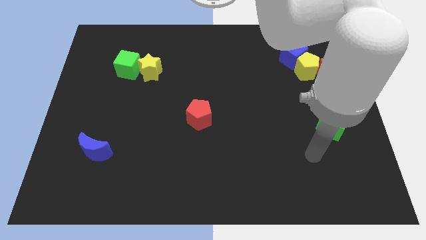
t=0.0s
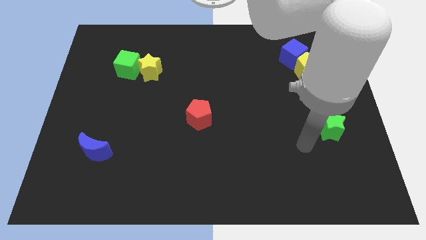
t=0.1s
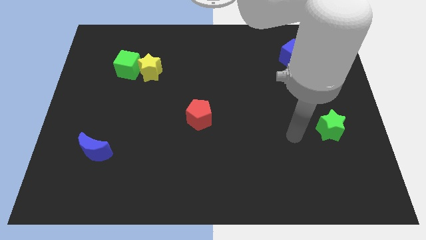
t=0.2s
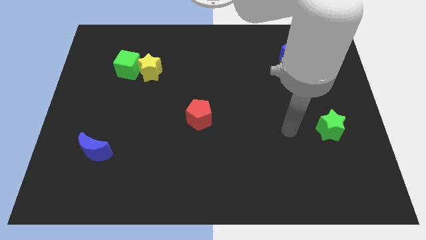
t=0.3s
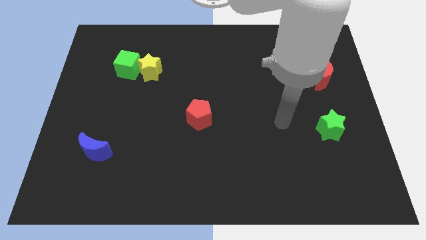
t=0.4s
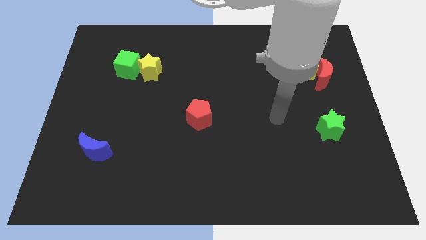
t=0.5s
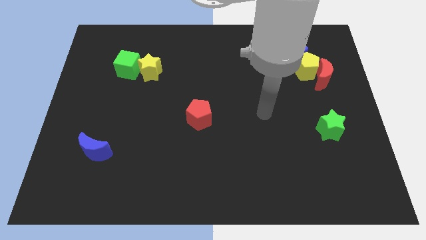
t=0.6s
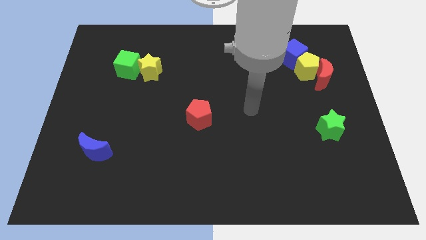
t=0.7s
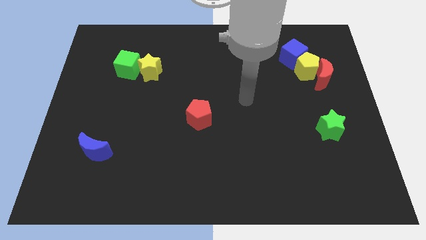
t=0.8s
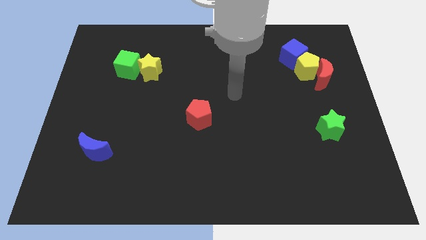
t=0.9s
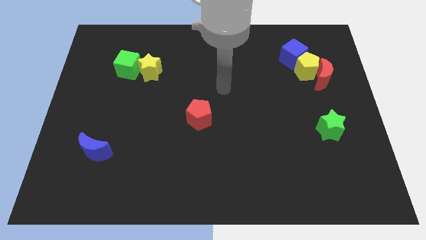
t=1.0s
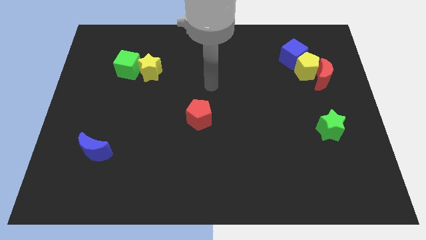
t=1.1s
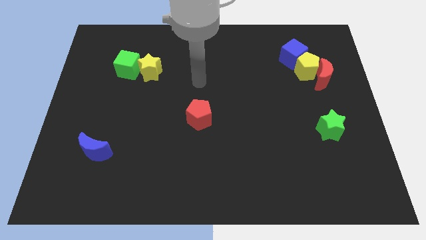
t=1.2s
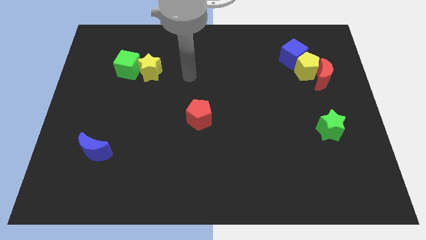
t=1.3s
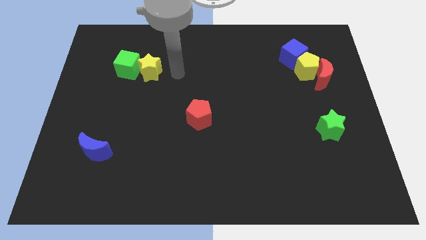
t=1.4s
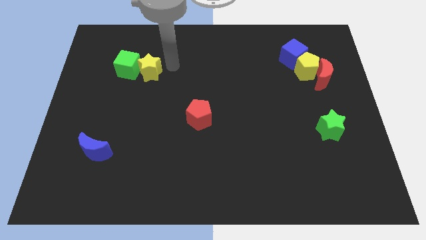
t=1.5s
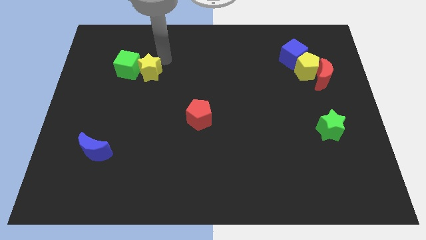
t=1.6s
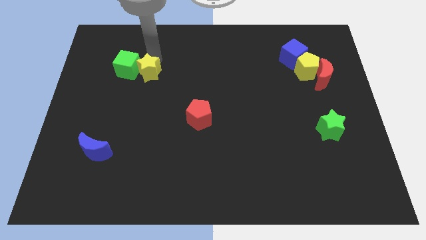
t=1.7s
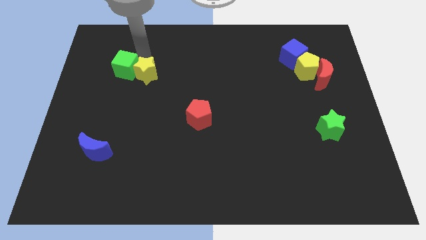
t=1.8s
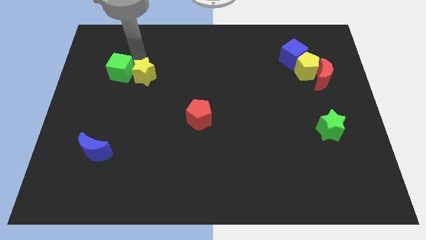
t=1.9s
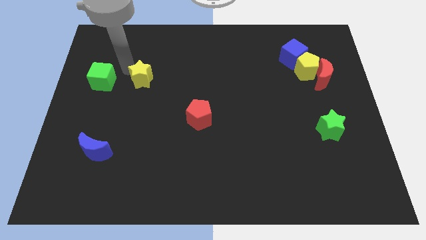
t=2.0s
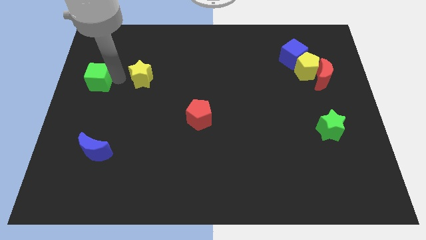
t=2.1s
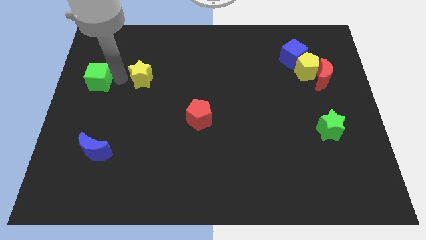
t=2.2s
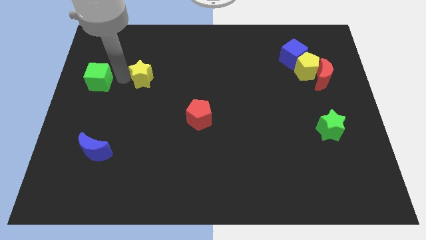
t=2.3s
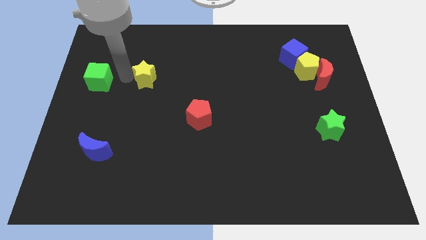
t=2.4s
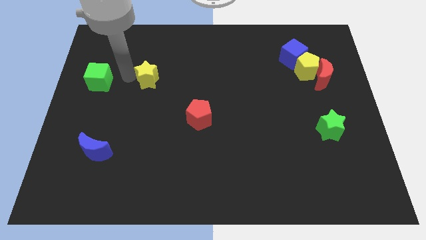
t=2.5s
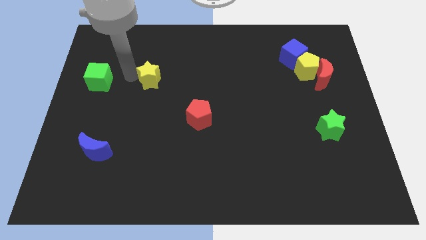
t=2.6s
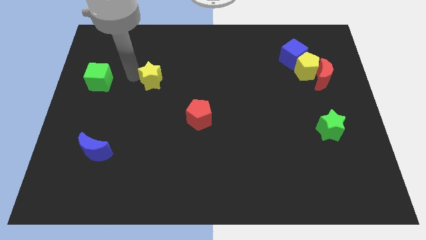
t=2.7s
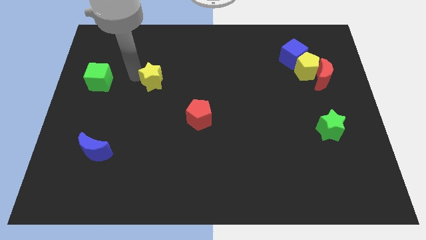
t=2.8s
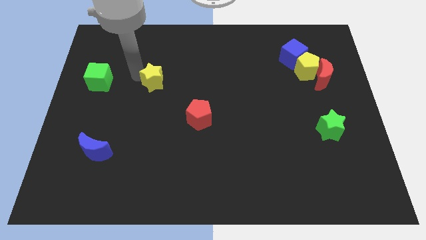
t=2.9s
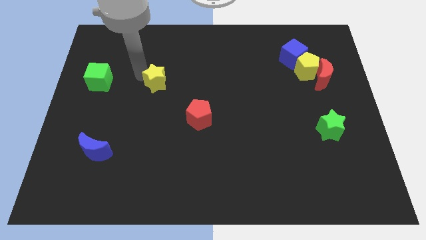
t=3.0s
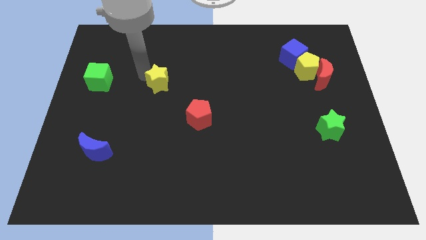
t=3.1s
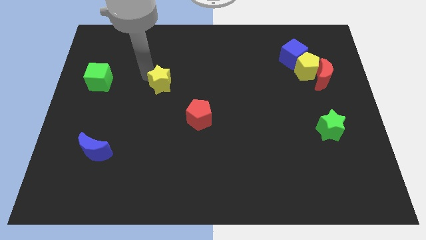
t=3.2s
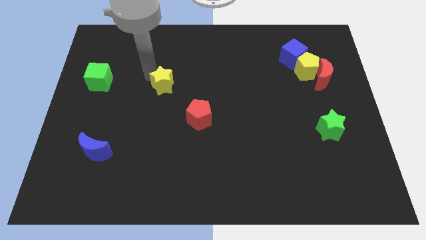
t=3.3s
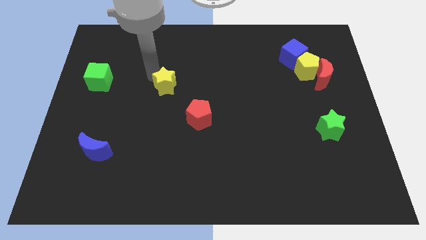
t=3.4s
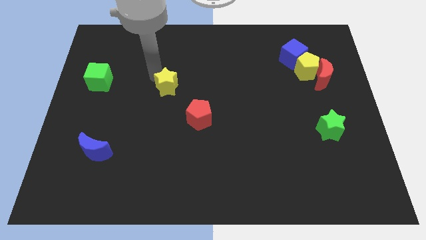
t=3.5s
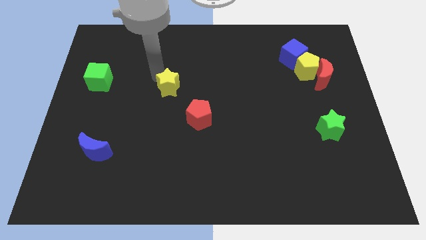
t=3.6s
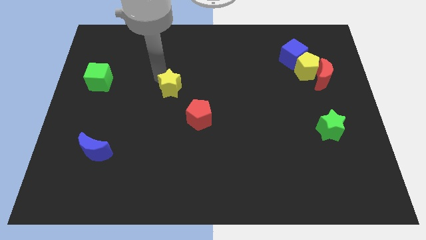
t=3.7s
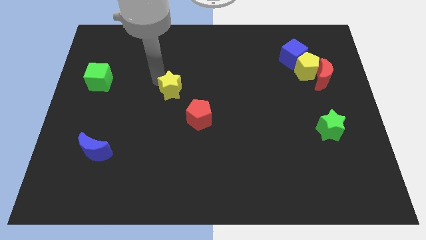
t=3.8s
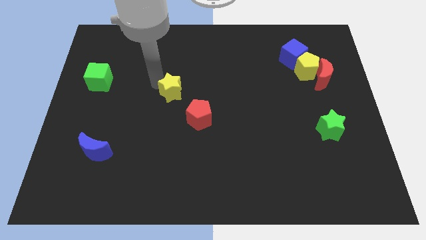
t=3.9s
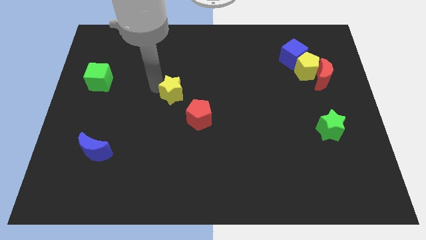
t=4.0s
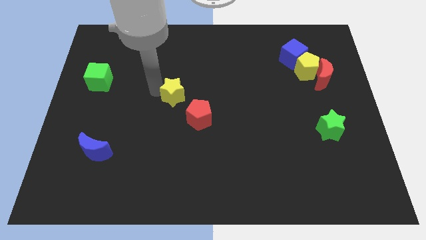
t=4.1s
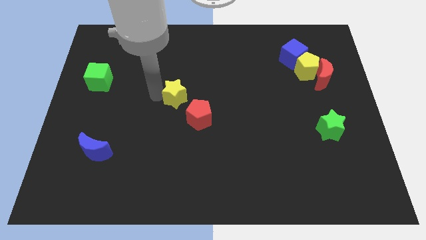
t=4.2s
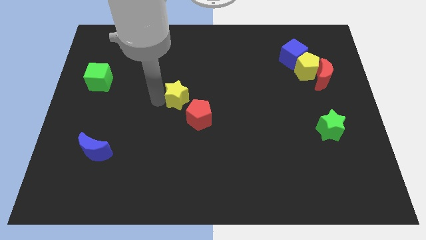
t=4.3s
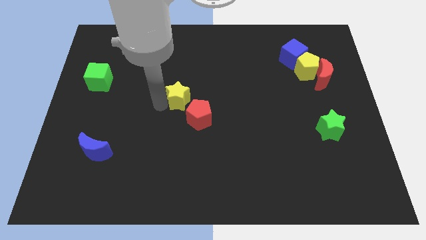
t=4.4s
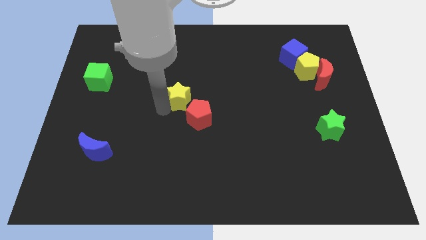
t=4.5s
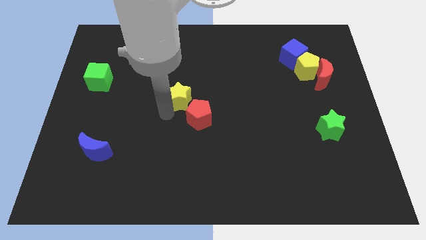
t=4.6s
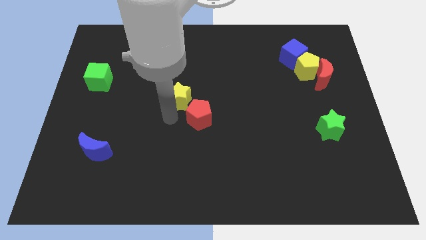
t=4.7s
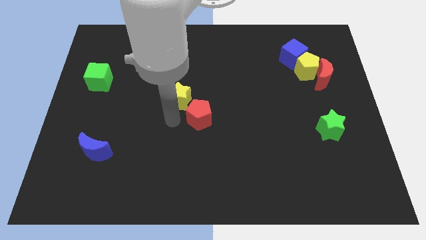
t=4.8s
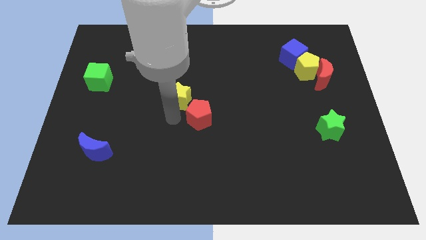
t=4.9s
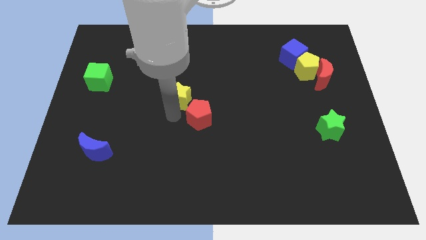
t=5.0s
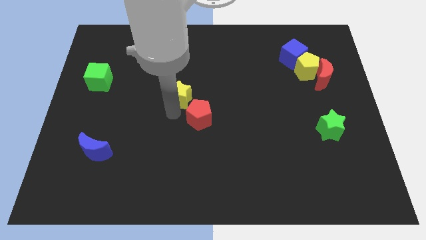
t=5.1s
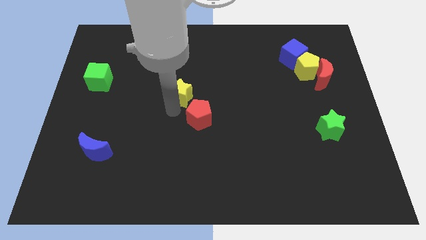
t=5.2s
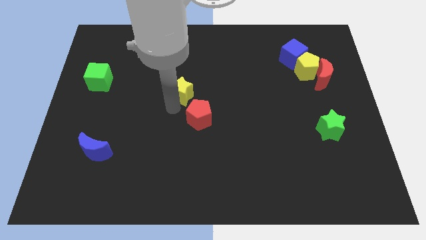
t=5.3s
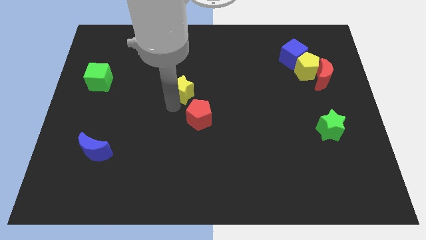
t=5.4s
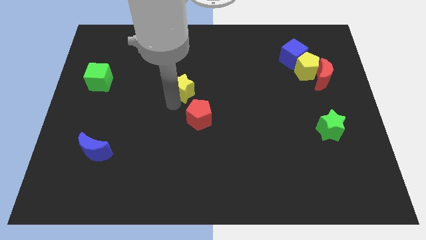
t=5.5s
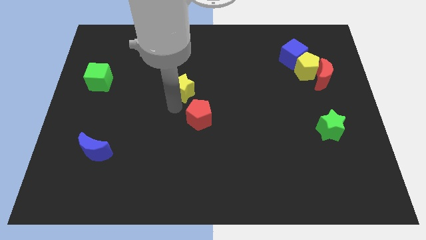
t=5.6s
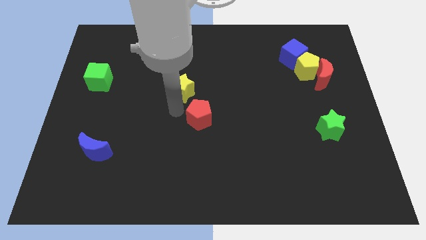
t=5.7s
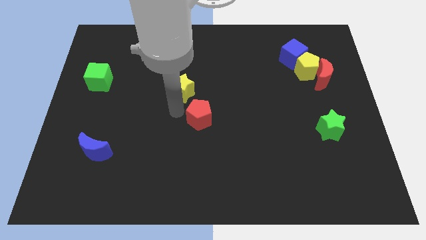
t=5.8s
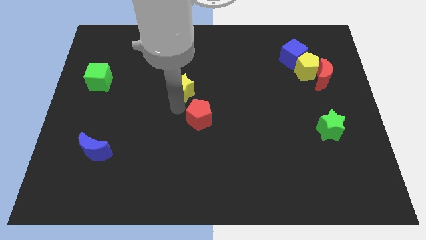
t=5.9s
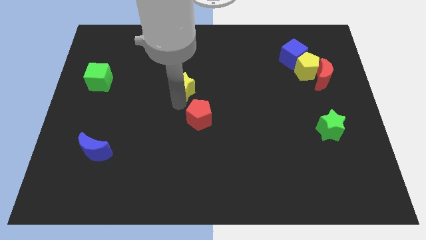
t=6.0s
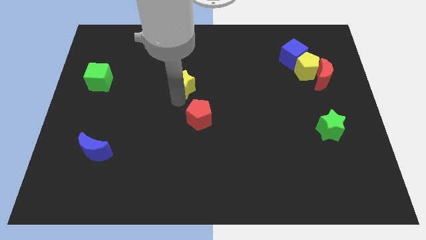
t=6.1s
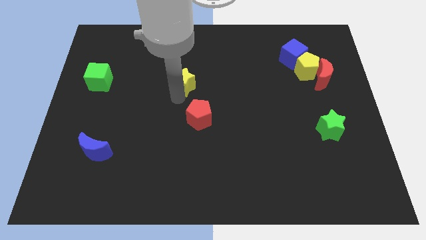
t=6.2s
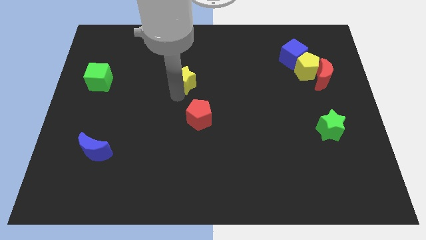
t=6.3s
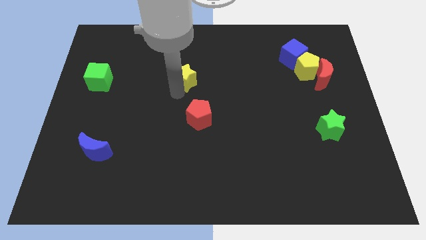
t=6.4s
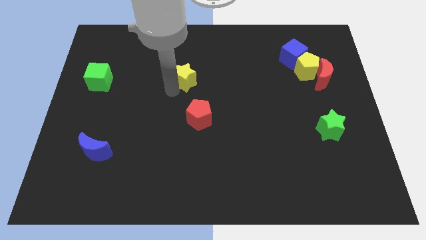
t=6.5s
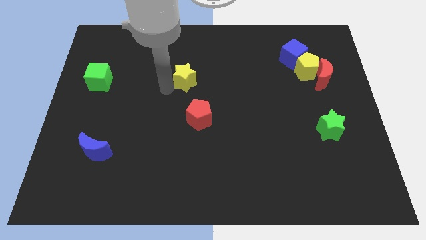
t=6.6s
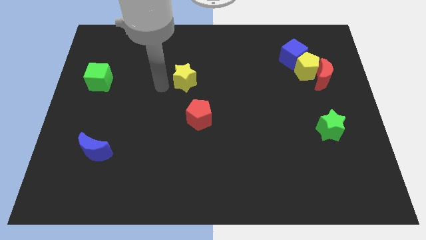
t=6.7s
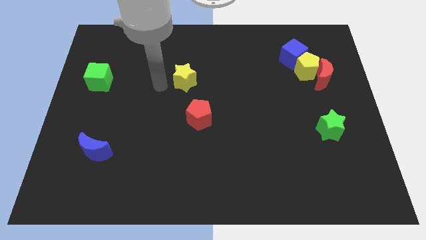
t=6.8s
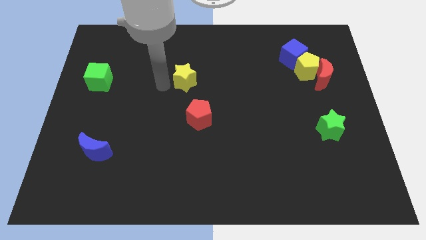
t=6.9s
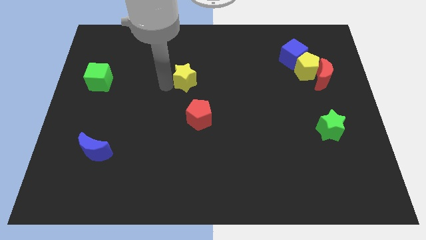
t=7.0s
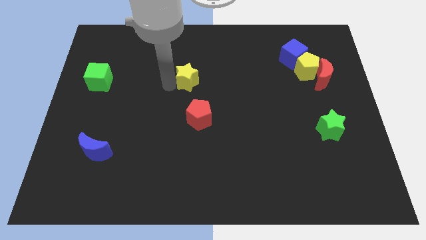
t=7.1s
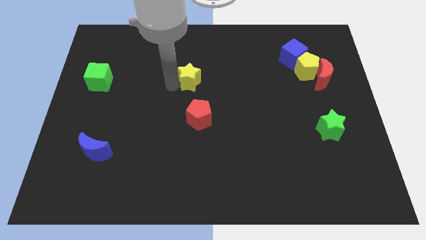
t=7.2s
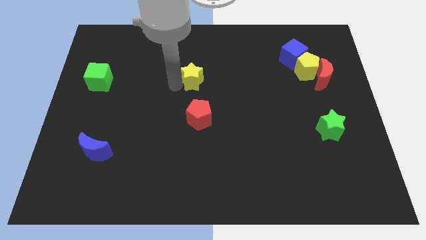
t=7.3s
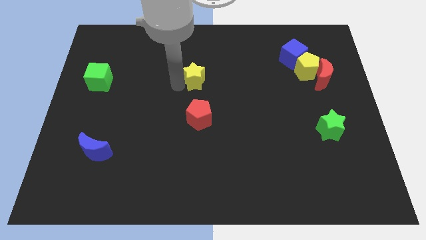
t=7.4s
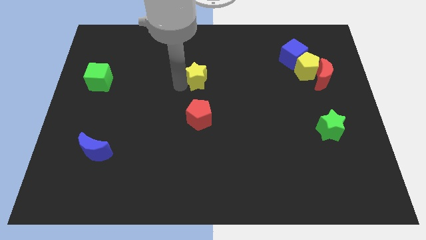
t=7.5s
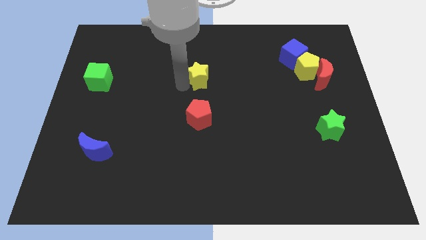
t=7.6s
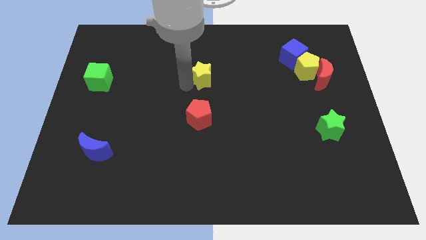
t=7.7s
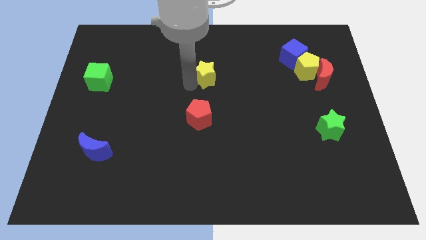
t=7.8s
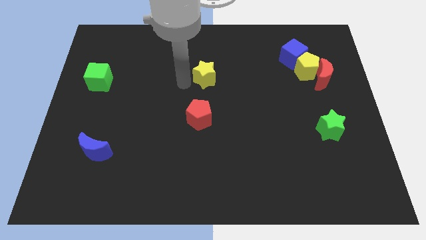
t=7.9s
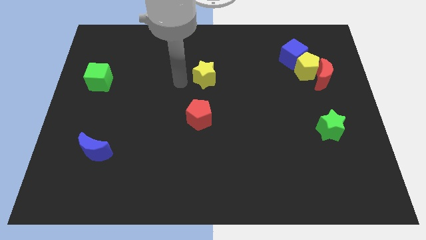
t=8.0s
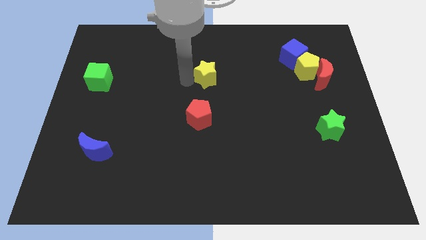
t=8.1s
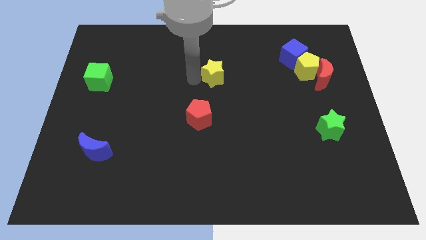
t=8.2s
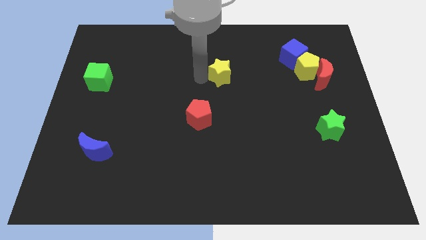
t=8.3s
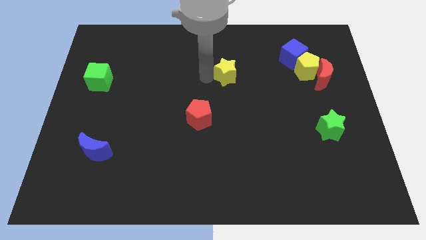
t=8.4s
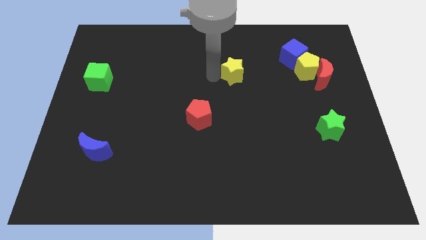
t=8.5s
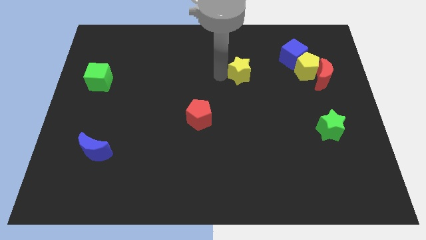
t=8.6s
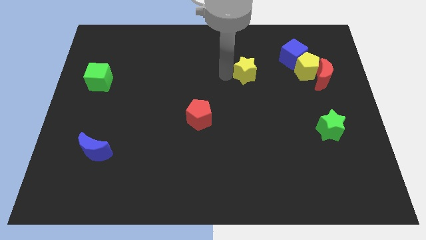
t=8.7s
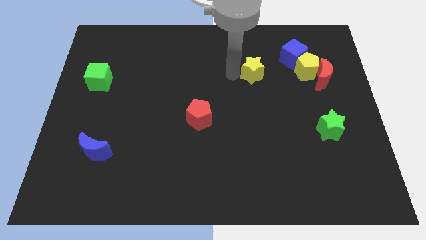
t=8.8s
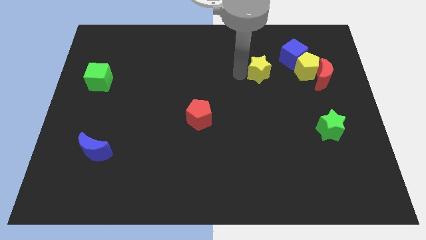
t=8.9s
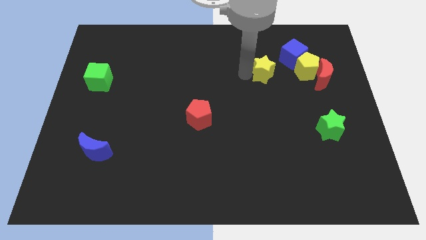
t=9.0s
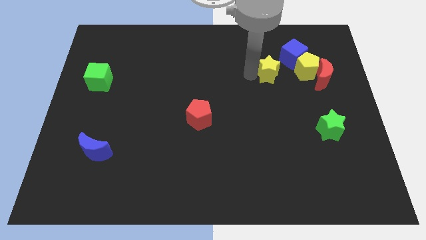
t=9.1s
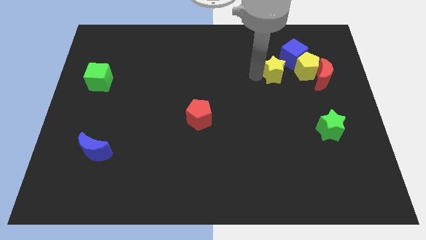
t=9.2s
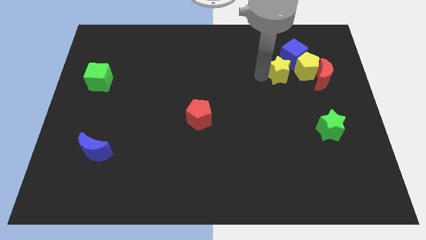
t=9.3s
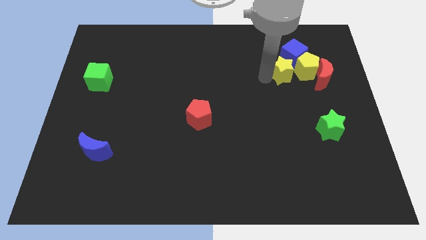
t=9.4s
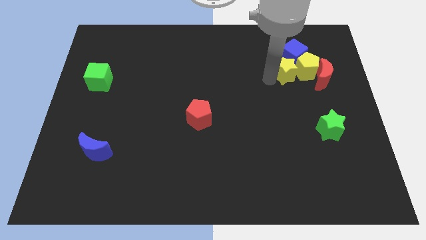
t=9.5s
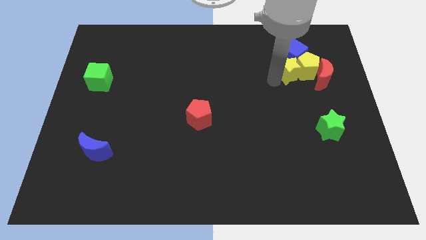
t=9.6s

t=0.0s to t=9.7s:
move the yellow star towards the blue cube
